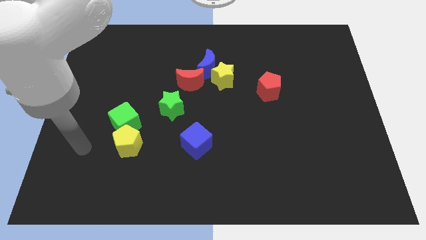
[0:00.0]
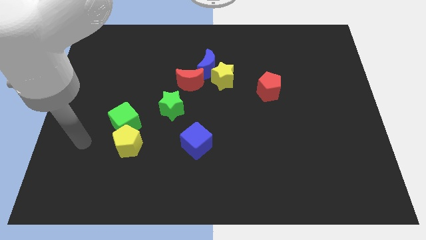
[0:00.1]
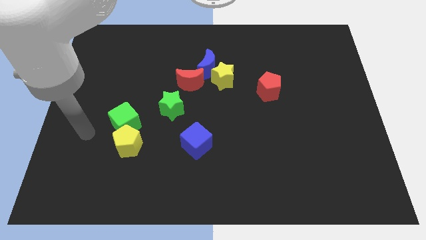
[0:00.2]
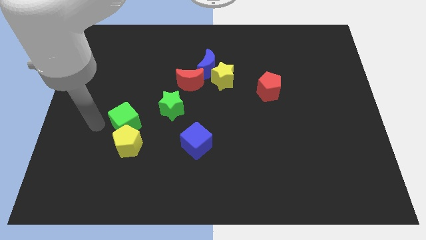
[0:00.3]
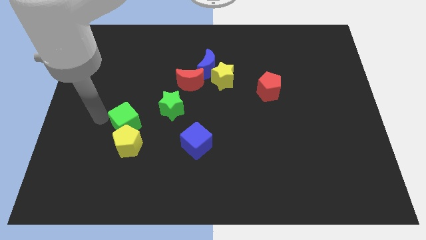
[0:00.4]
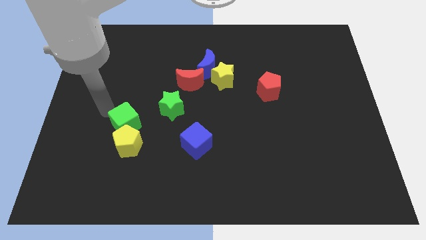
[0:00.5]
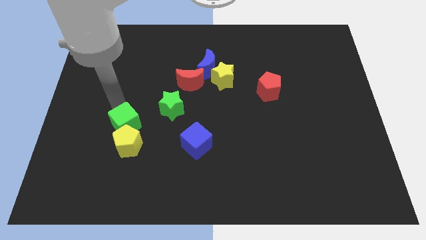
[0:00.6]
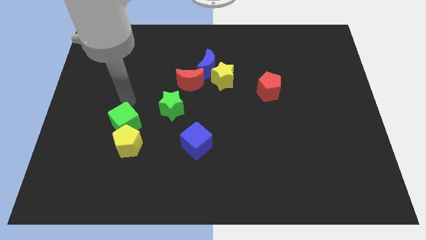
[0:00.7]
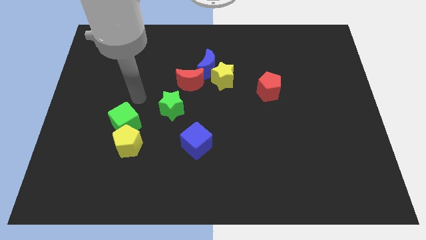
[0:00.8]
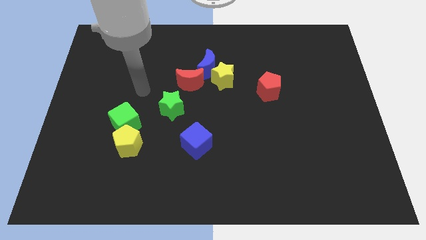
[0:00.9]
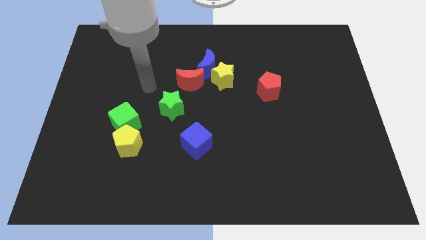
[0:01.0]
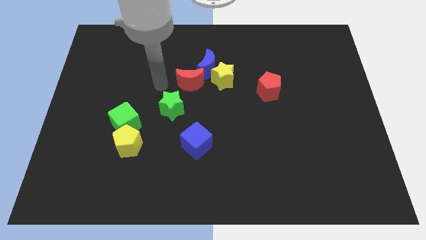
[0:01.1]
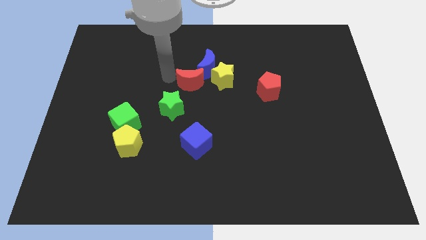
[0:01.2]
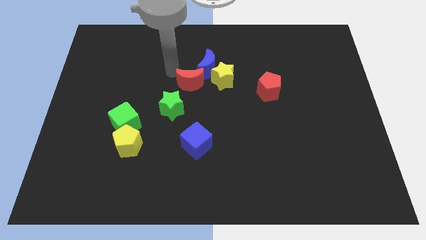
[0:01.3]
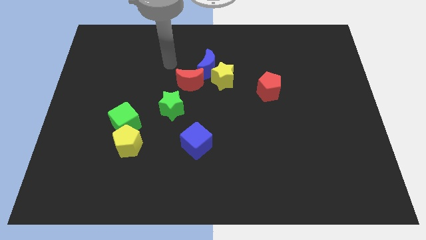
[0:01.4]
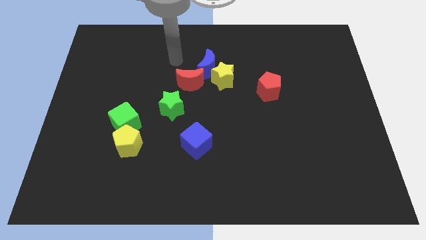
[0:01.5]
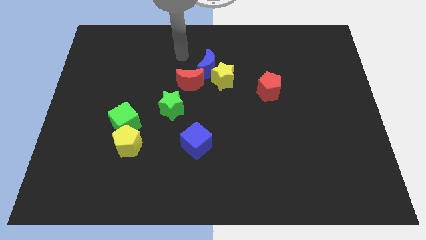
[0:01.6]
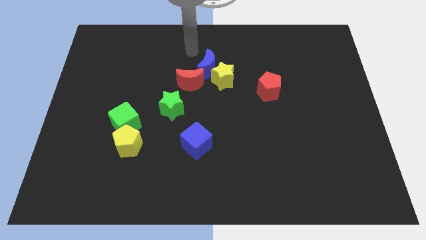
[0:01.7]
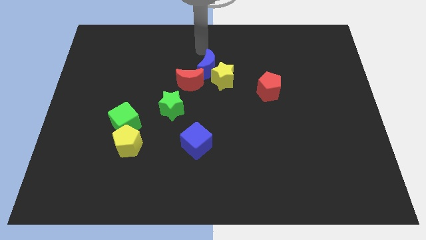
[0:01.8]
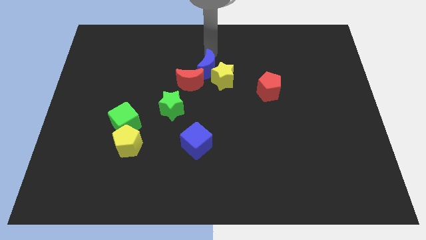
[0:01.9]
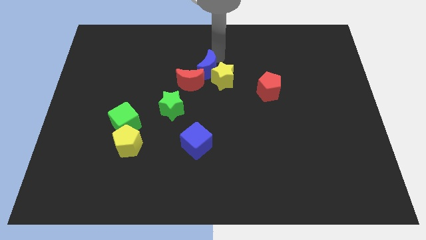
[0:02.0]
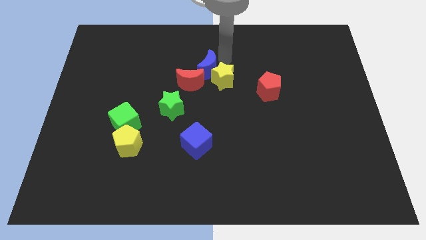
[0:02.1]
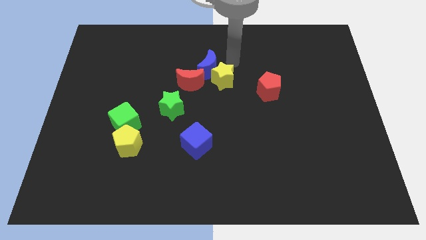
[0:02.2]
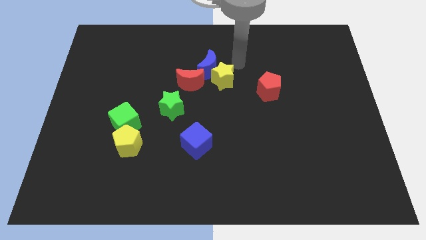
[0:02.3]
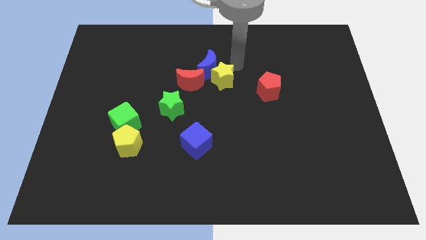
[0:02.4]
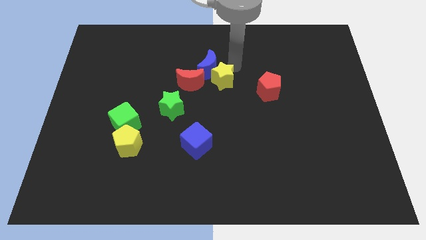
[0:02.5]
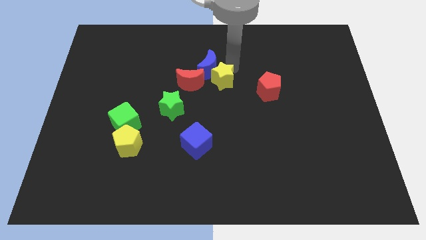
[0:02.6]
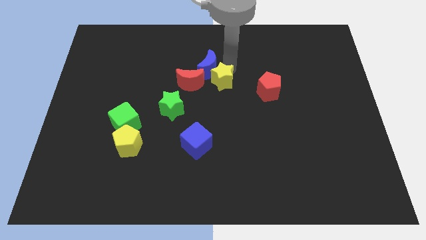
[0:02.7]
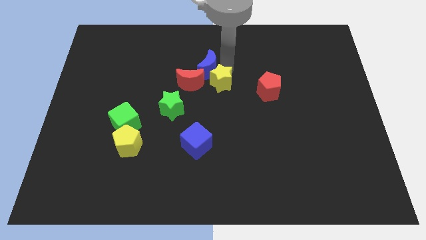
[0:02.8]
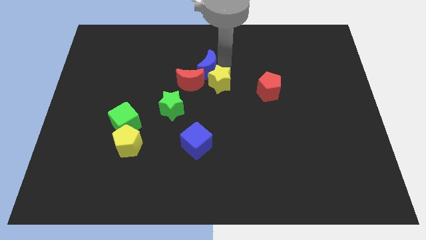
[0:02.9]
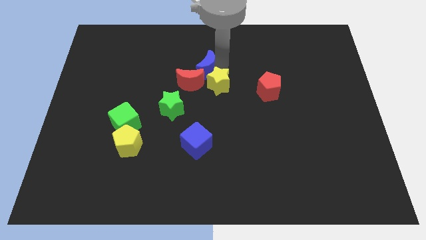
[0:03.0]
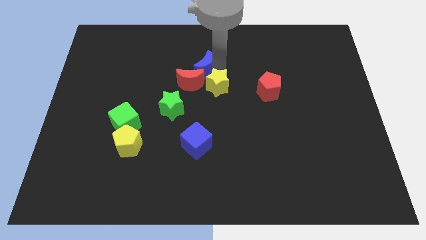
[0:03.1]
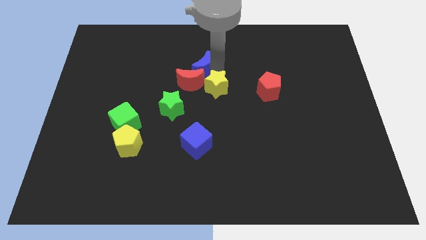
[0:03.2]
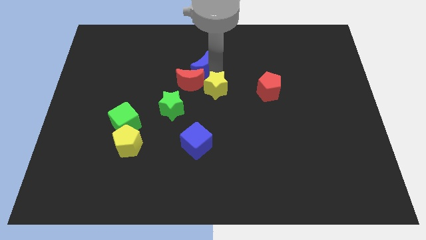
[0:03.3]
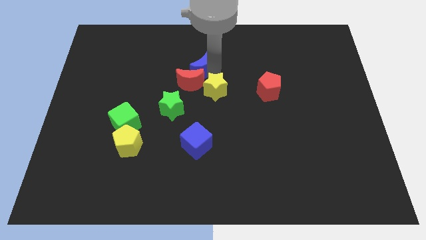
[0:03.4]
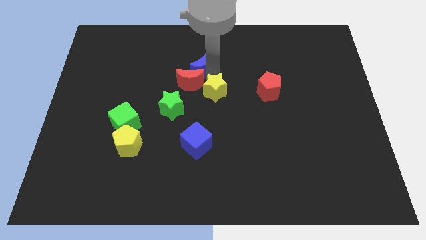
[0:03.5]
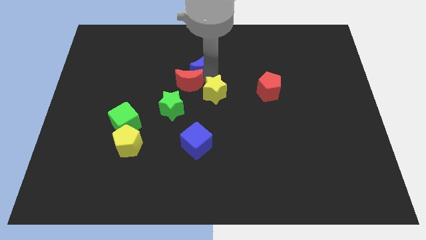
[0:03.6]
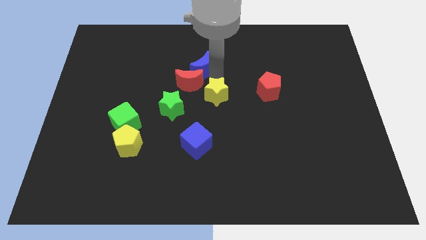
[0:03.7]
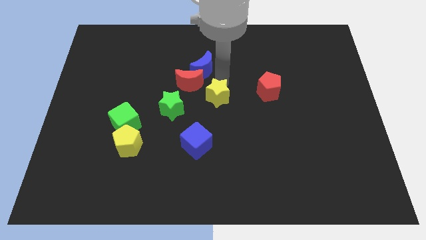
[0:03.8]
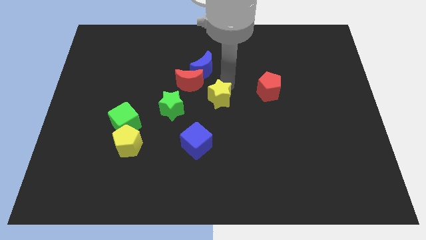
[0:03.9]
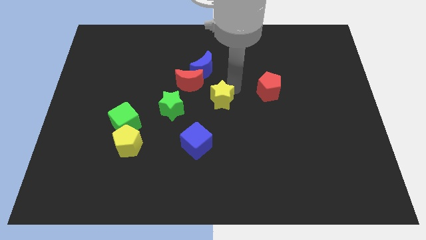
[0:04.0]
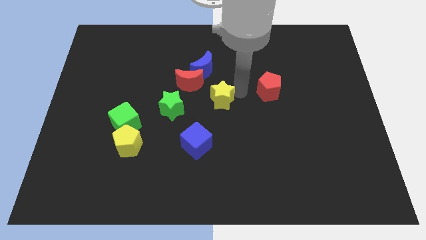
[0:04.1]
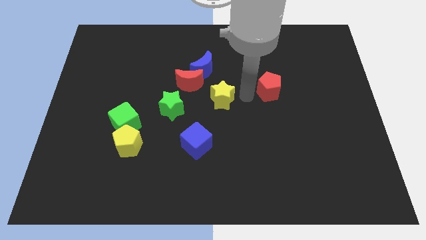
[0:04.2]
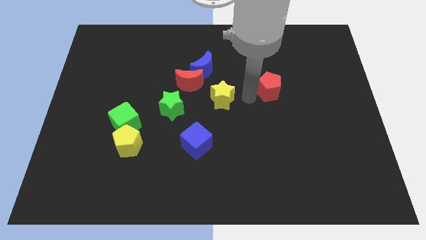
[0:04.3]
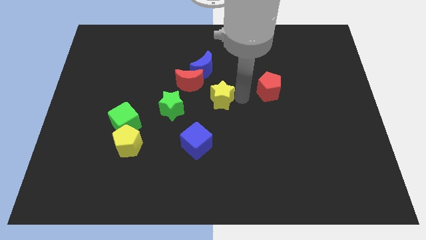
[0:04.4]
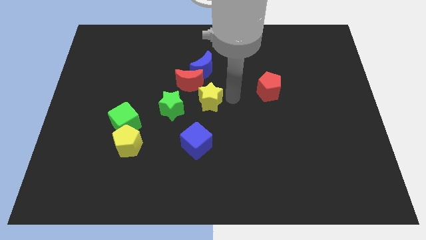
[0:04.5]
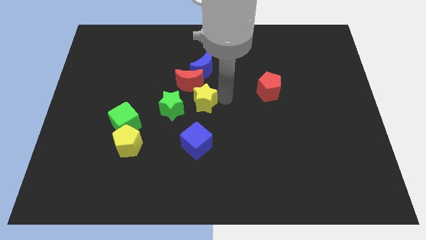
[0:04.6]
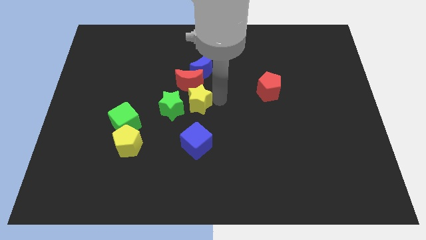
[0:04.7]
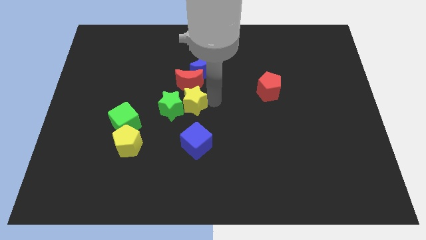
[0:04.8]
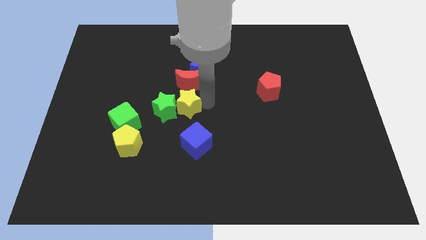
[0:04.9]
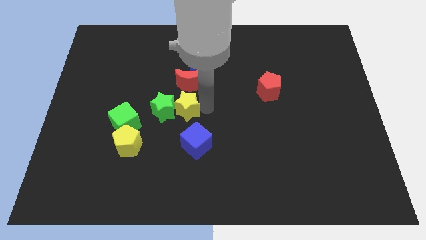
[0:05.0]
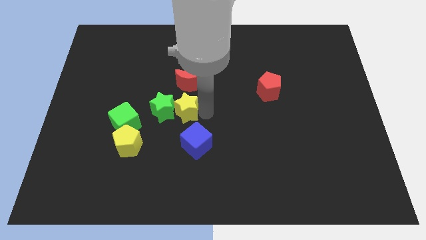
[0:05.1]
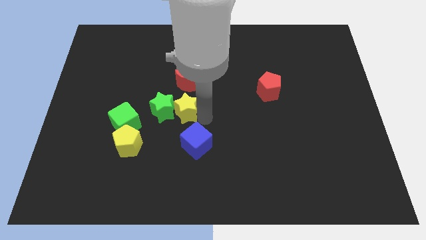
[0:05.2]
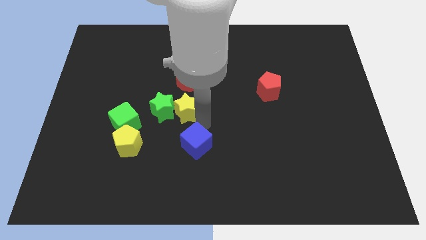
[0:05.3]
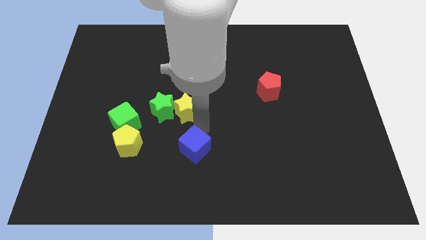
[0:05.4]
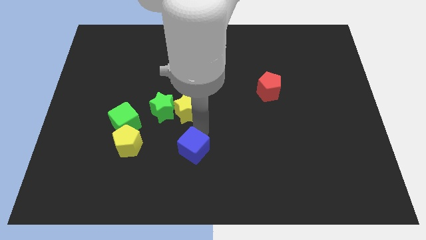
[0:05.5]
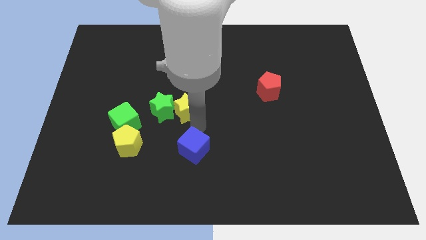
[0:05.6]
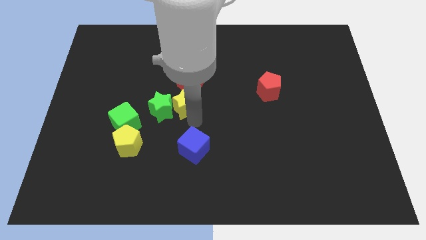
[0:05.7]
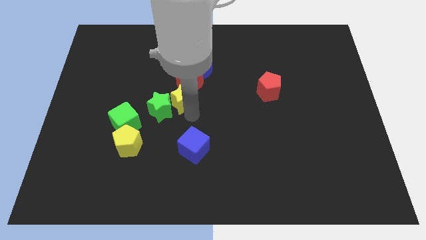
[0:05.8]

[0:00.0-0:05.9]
move the yellow star diagonally down and to the left of the blue moon

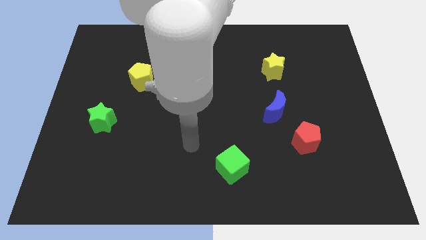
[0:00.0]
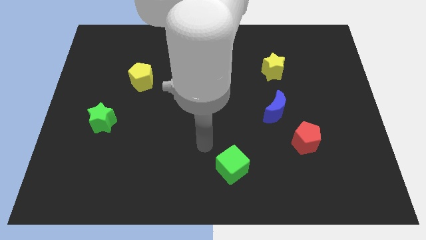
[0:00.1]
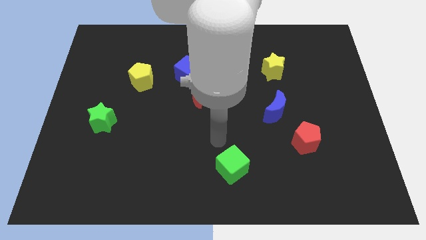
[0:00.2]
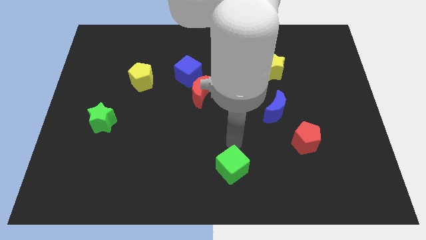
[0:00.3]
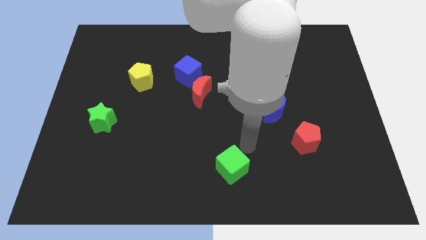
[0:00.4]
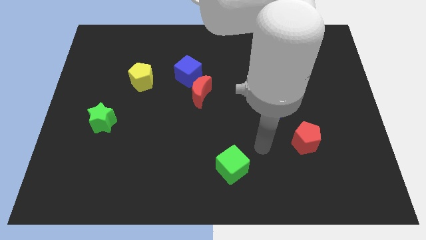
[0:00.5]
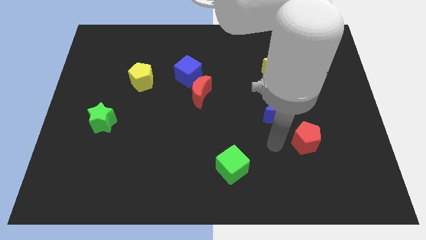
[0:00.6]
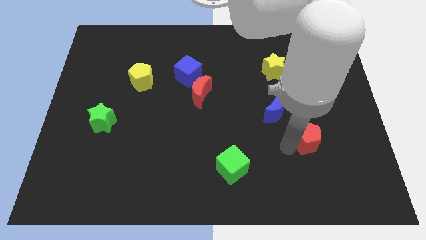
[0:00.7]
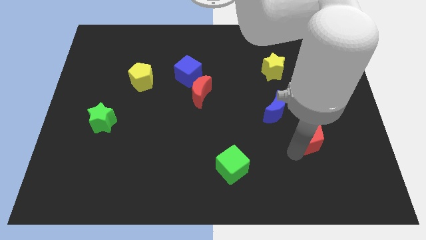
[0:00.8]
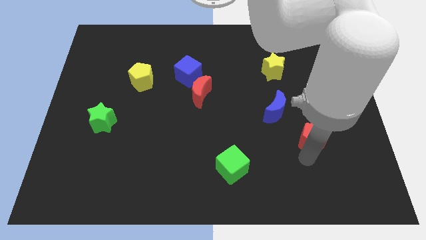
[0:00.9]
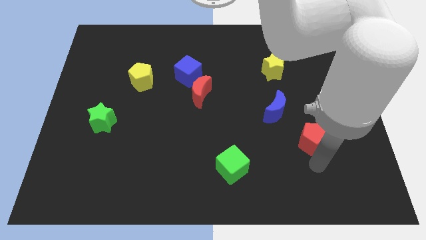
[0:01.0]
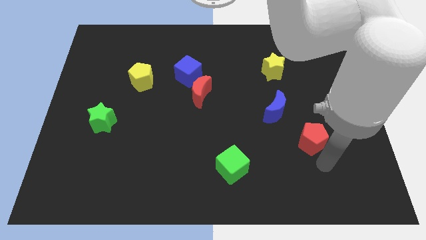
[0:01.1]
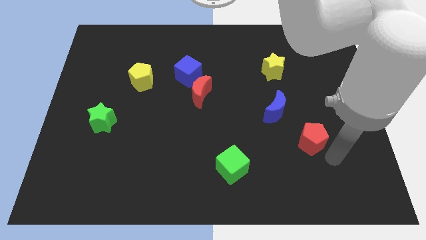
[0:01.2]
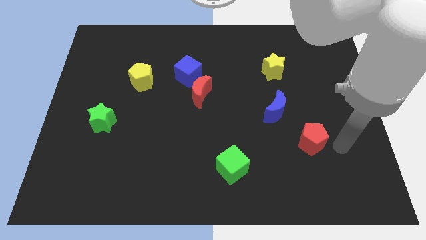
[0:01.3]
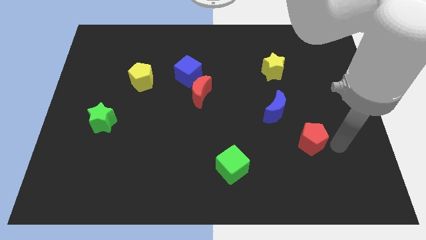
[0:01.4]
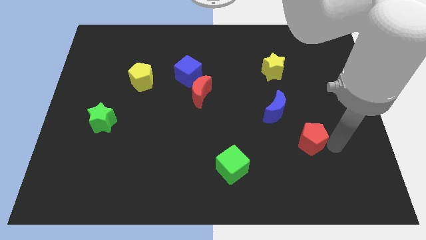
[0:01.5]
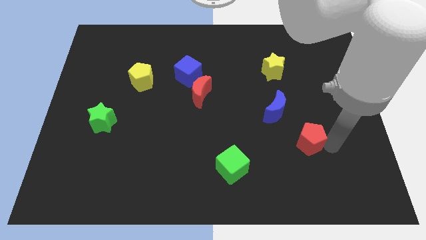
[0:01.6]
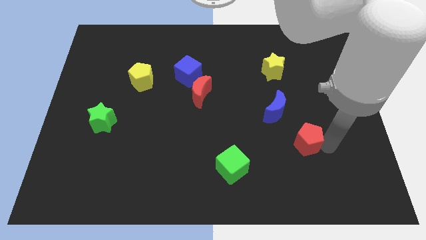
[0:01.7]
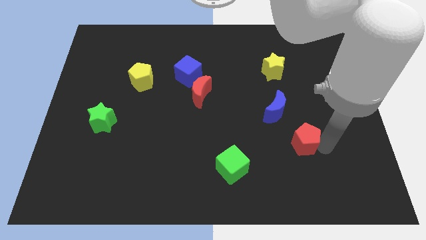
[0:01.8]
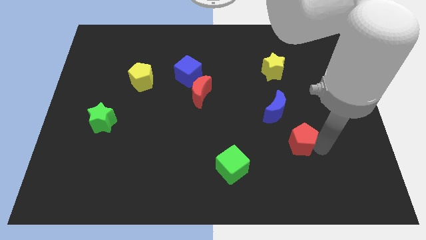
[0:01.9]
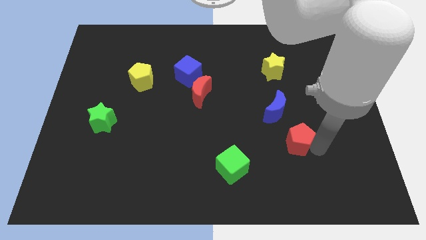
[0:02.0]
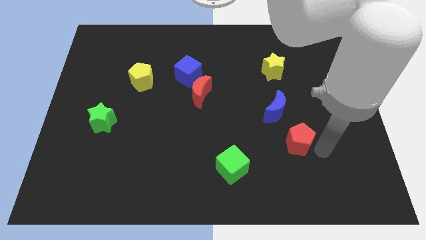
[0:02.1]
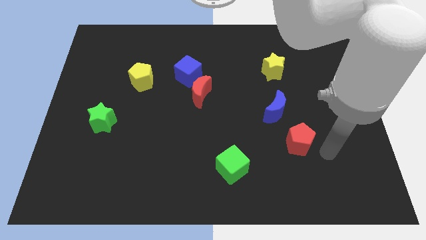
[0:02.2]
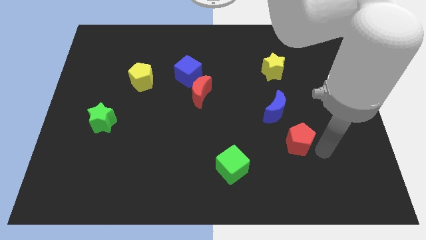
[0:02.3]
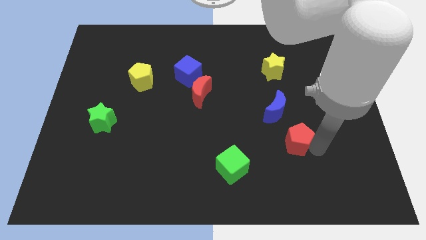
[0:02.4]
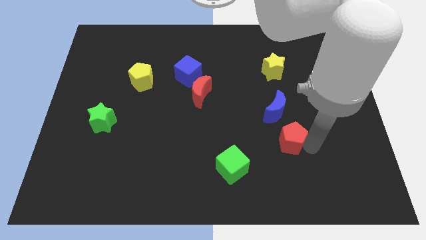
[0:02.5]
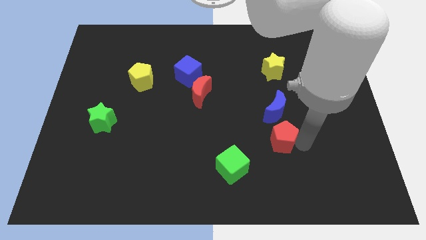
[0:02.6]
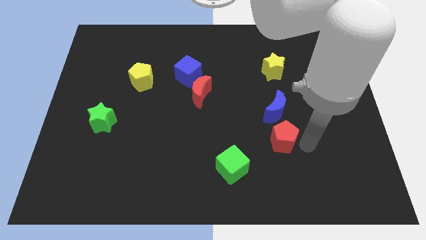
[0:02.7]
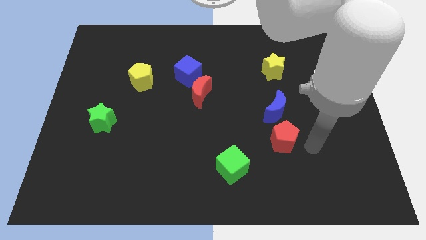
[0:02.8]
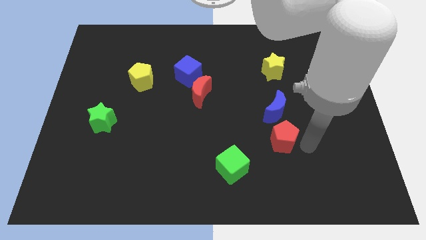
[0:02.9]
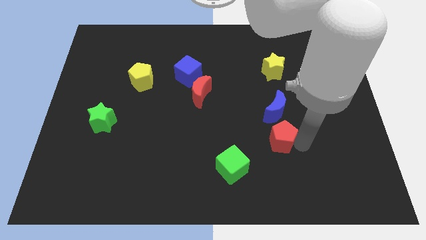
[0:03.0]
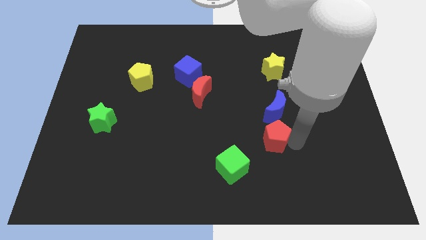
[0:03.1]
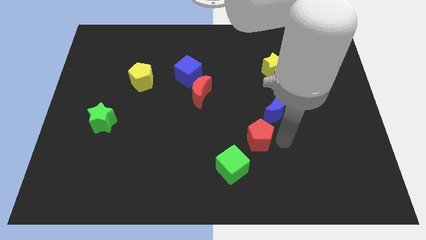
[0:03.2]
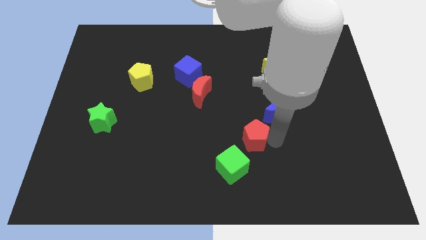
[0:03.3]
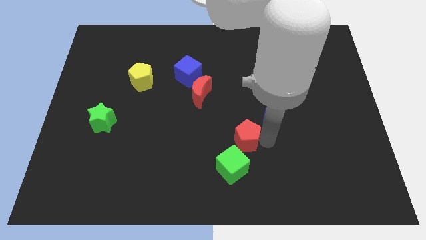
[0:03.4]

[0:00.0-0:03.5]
slide the red pentagon to the top of the green cube
